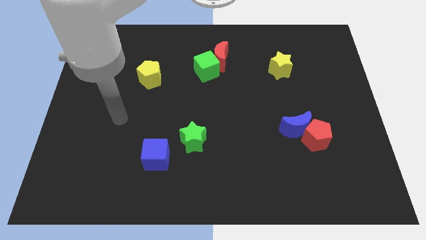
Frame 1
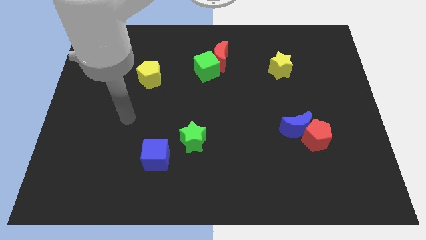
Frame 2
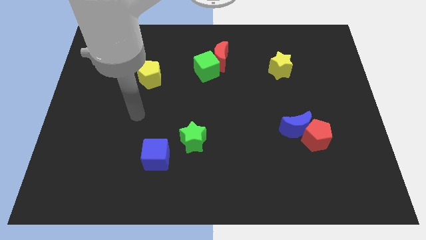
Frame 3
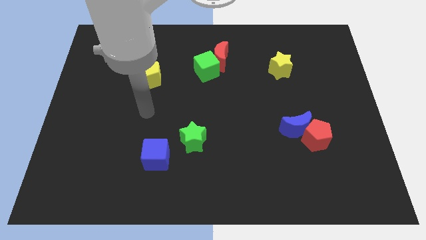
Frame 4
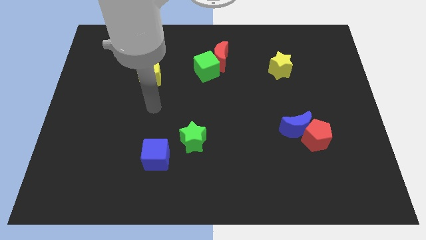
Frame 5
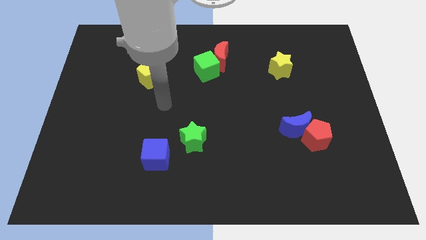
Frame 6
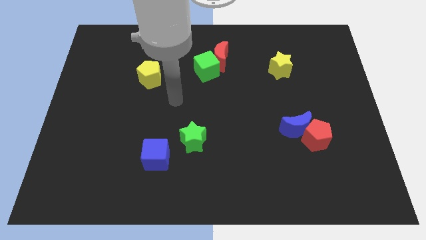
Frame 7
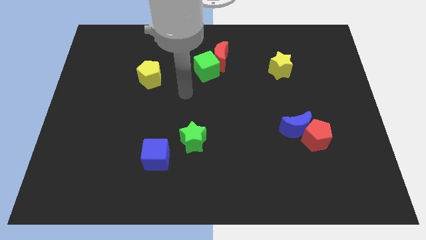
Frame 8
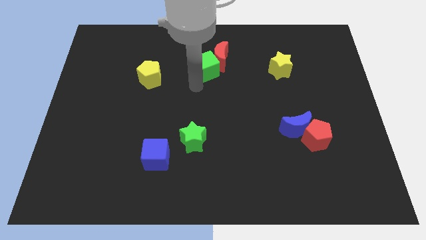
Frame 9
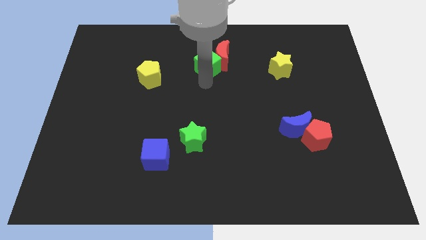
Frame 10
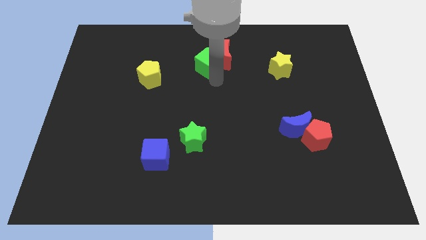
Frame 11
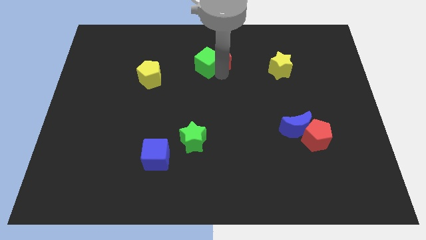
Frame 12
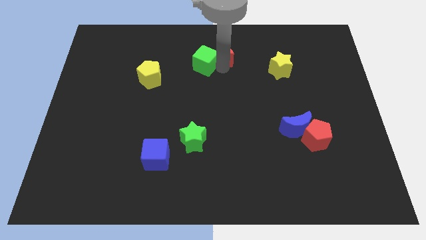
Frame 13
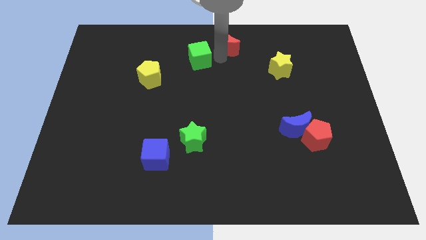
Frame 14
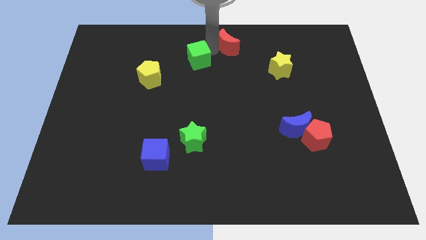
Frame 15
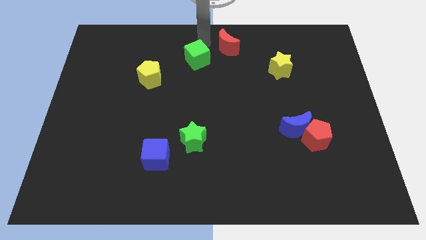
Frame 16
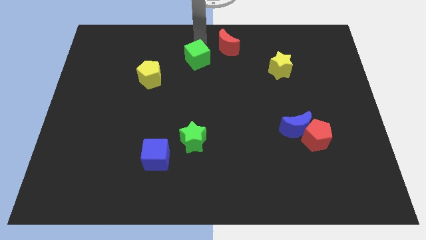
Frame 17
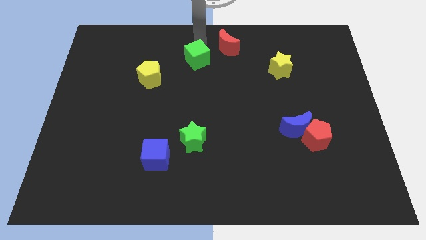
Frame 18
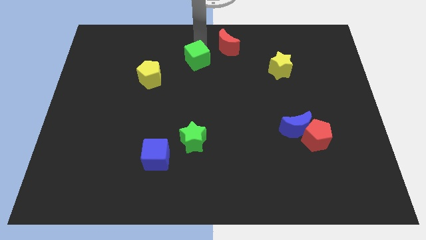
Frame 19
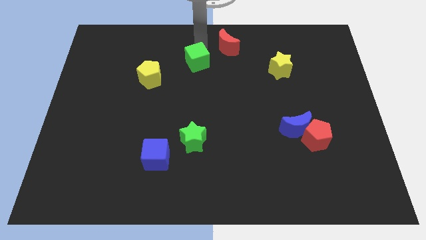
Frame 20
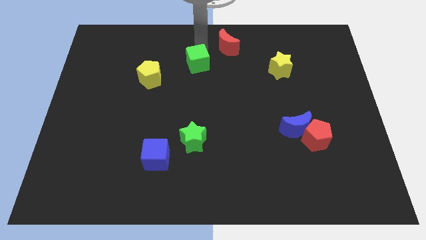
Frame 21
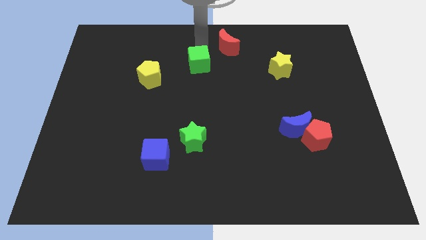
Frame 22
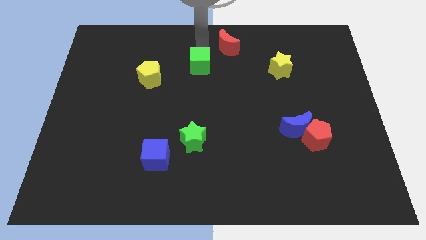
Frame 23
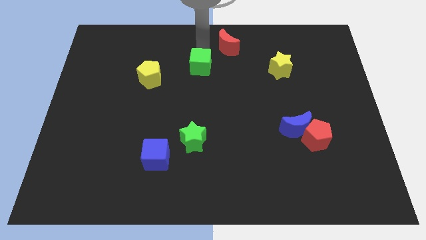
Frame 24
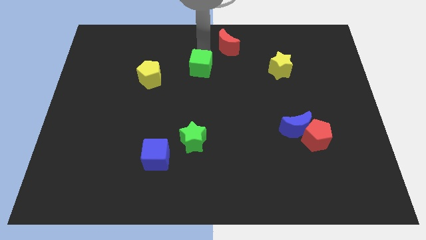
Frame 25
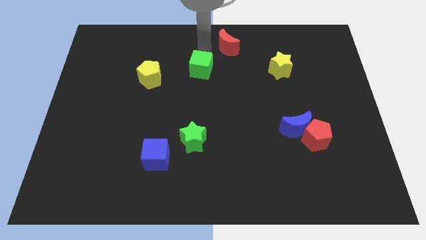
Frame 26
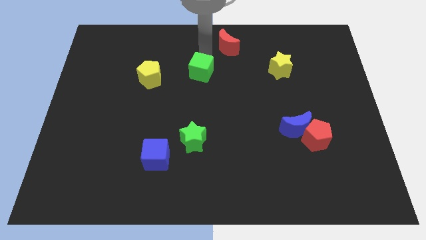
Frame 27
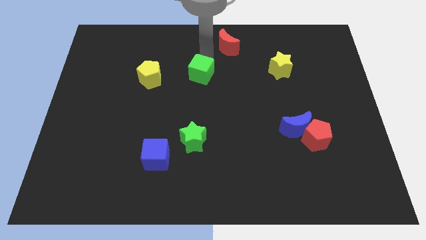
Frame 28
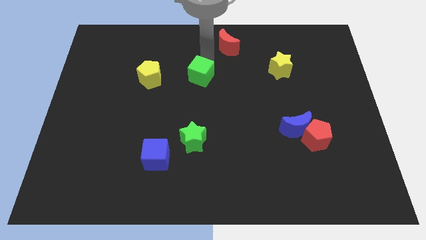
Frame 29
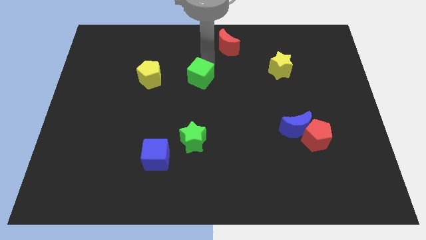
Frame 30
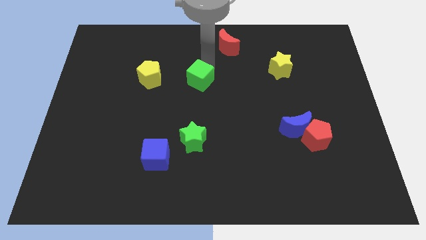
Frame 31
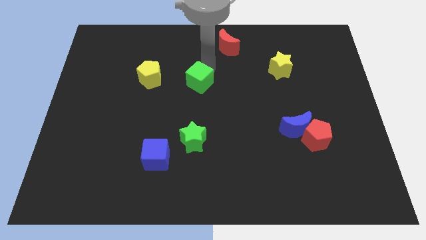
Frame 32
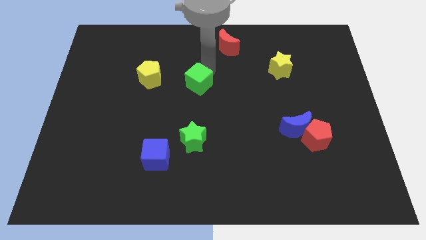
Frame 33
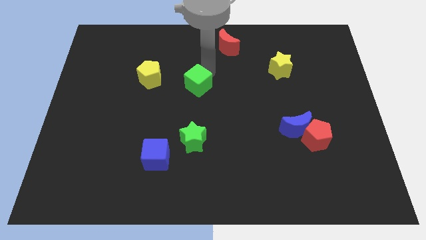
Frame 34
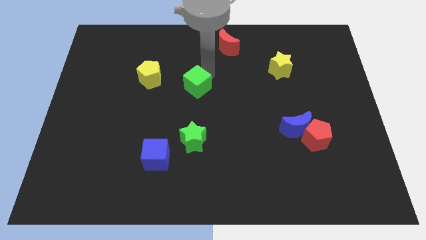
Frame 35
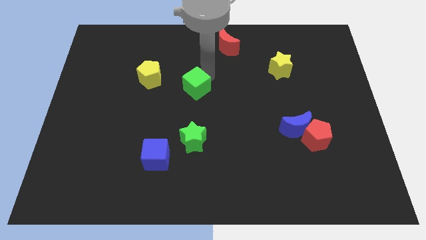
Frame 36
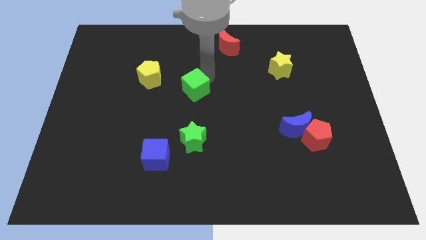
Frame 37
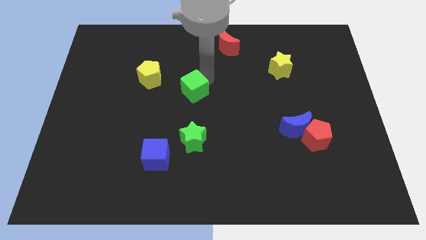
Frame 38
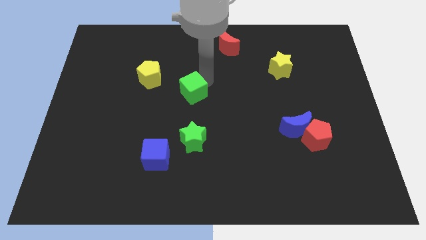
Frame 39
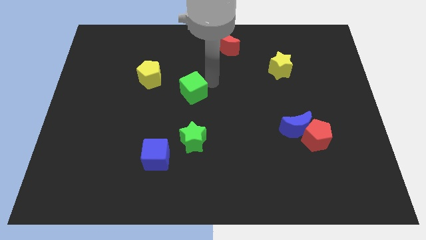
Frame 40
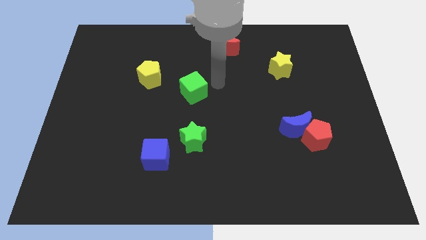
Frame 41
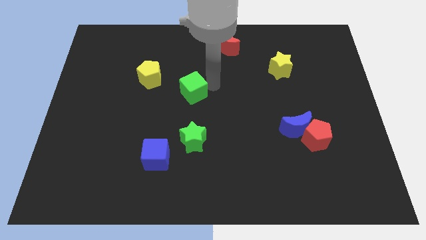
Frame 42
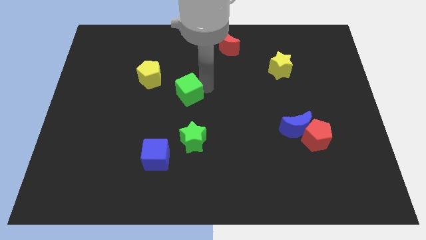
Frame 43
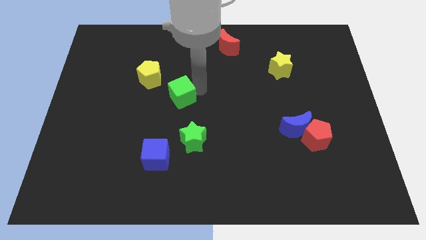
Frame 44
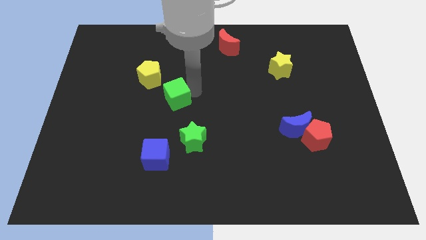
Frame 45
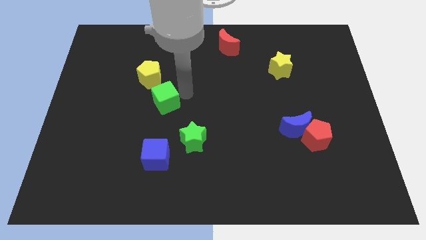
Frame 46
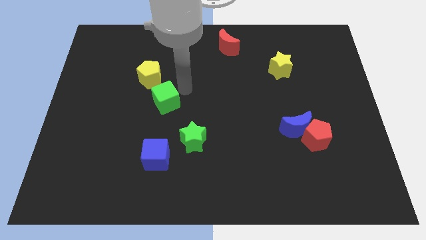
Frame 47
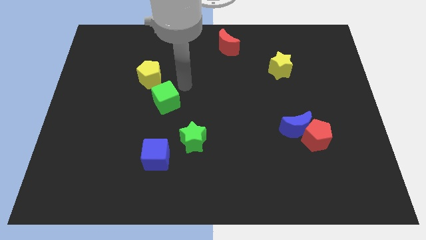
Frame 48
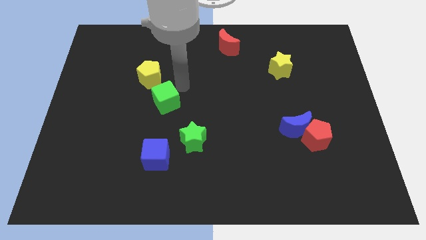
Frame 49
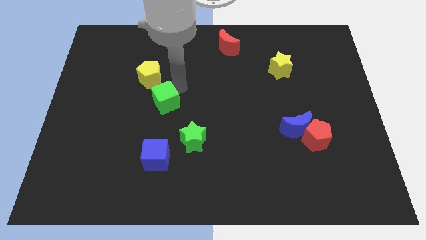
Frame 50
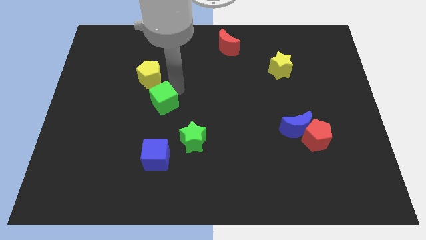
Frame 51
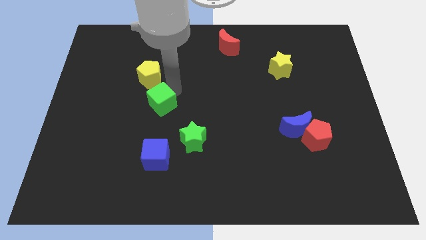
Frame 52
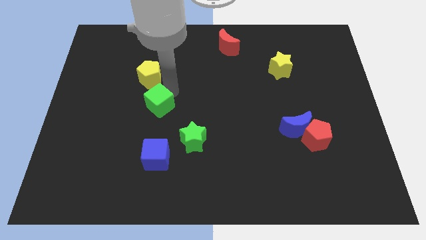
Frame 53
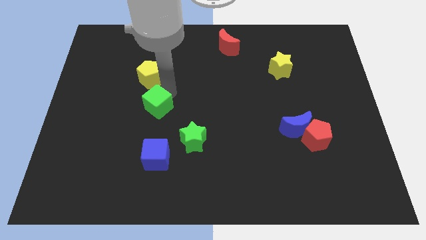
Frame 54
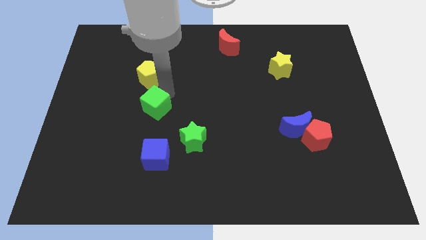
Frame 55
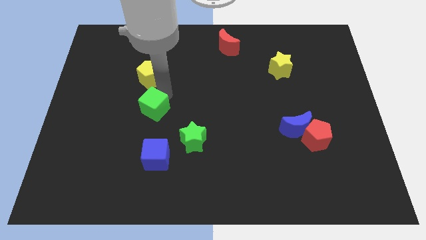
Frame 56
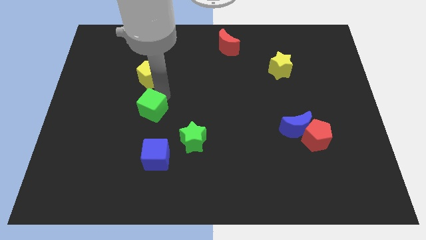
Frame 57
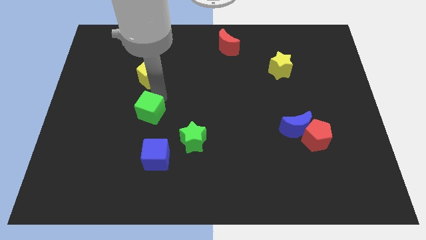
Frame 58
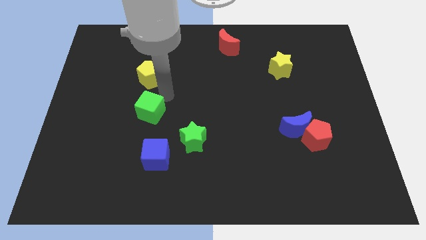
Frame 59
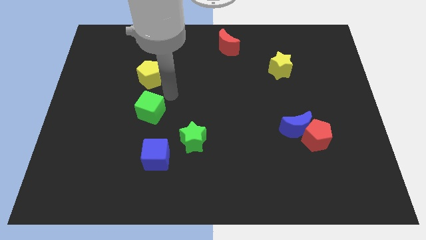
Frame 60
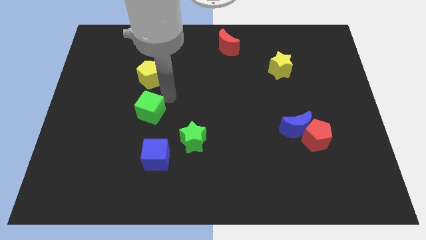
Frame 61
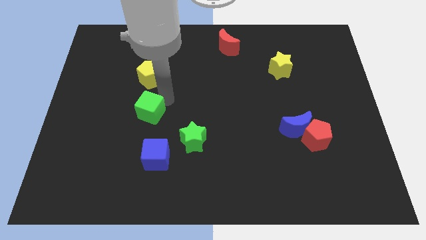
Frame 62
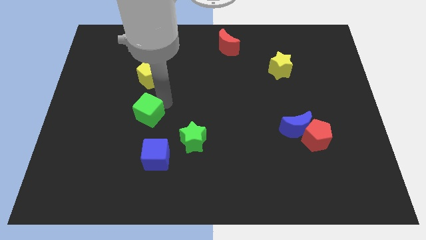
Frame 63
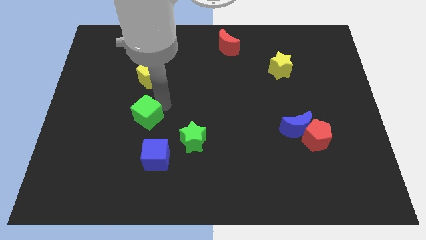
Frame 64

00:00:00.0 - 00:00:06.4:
move the green cube diagonally downwards and left

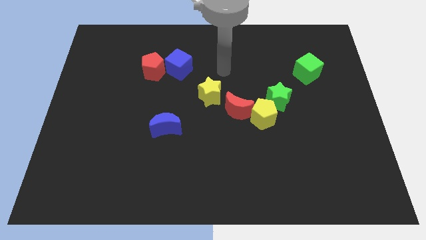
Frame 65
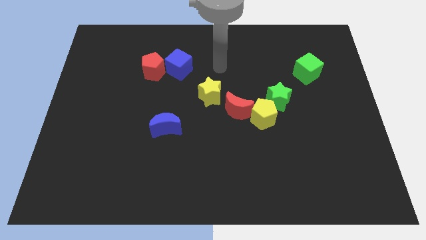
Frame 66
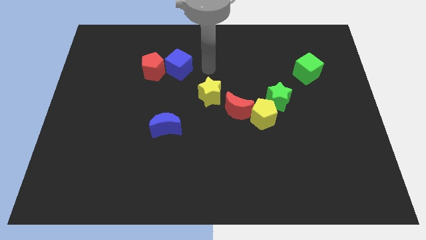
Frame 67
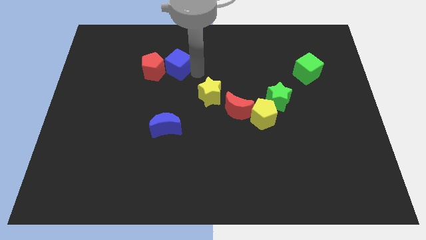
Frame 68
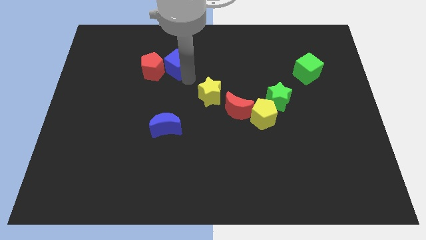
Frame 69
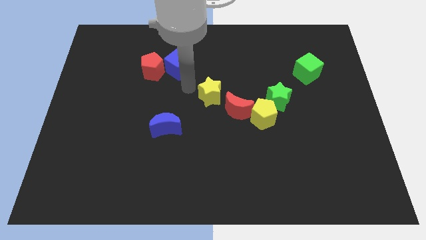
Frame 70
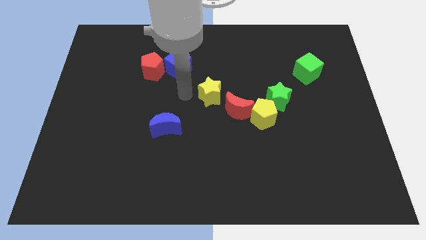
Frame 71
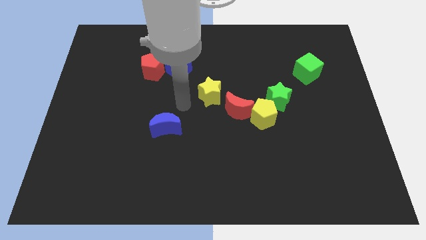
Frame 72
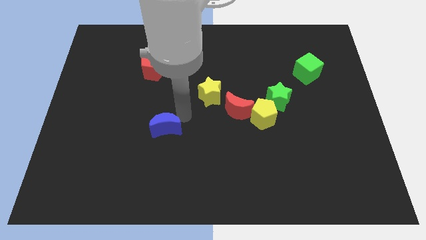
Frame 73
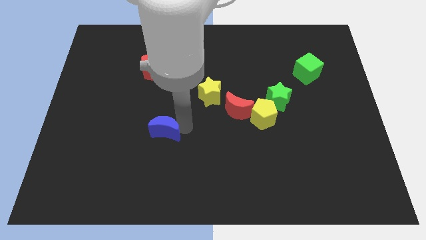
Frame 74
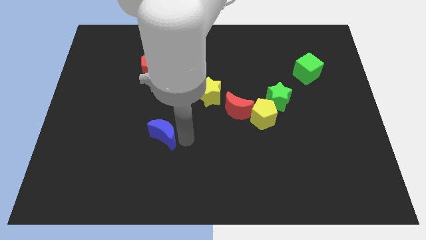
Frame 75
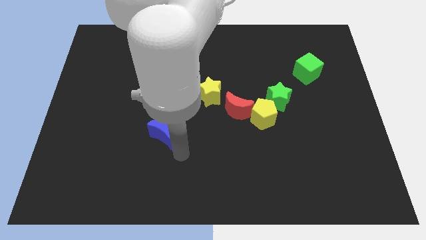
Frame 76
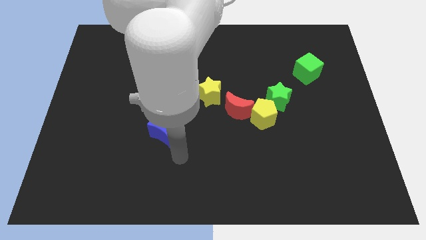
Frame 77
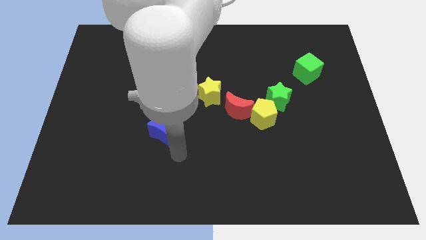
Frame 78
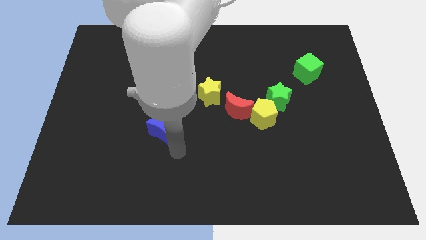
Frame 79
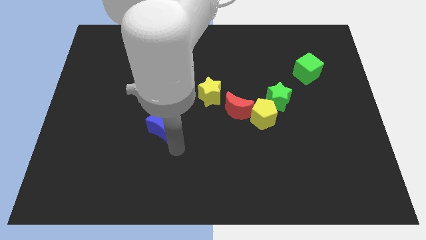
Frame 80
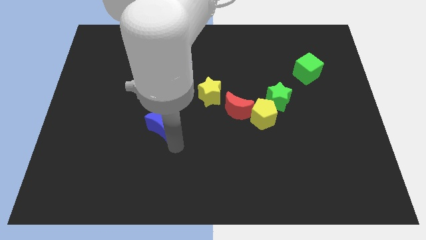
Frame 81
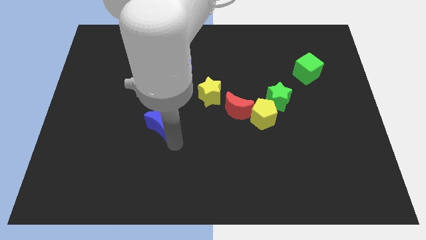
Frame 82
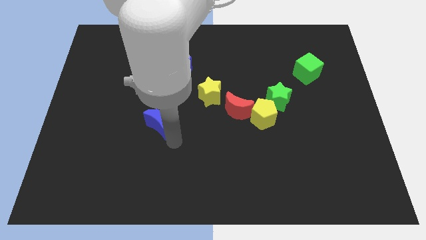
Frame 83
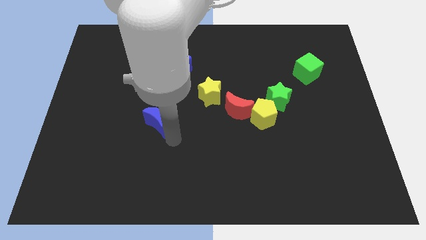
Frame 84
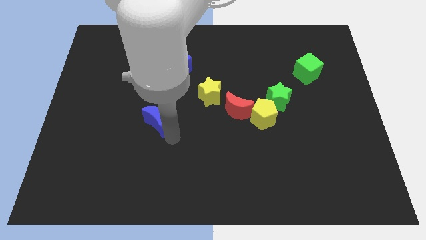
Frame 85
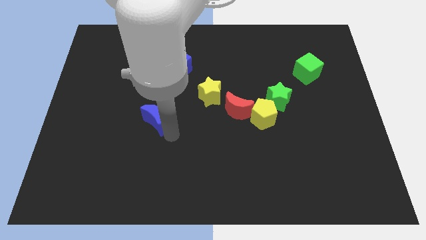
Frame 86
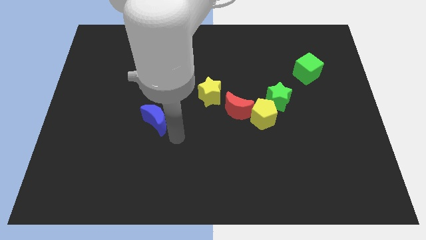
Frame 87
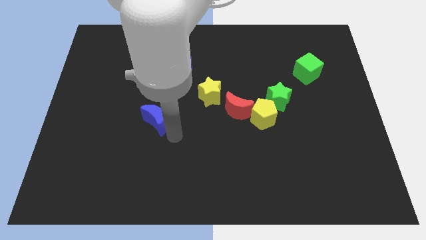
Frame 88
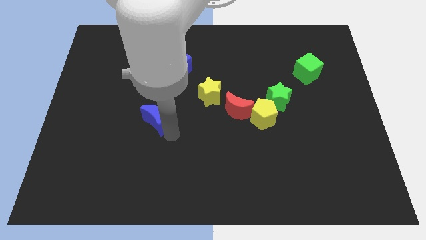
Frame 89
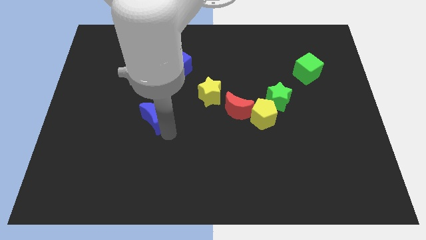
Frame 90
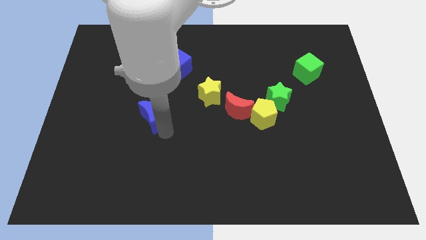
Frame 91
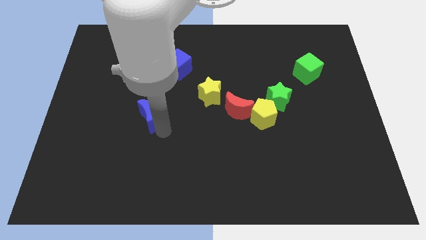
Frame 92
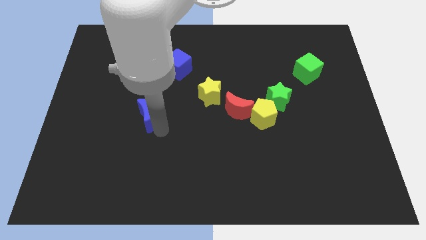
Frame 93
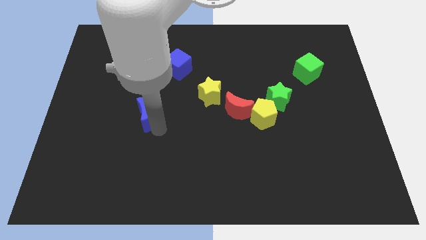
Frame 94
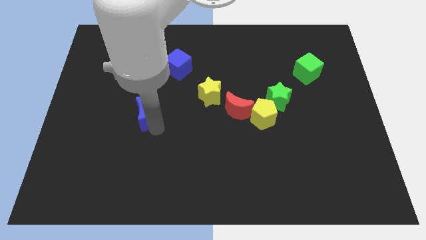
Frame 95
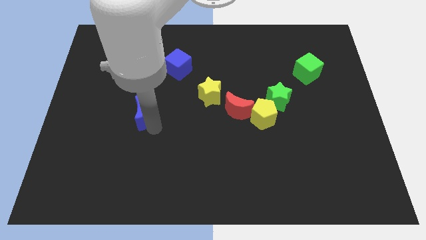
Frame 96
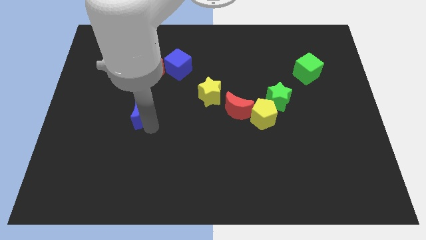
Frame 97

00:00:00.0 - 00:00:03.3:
slide the blue moon diagonally upwards and to the left slightly
